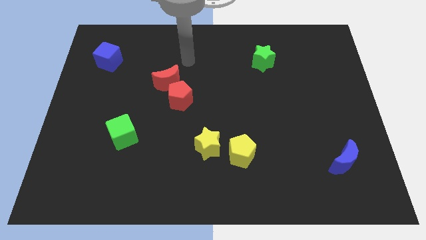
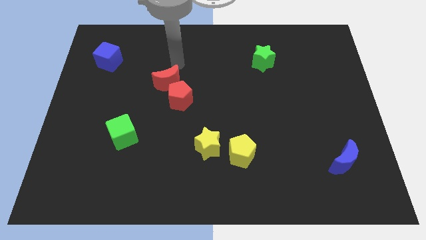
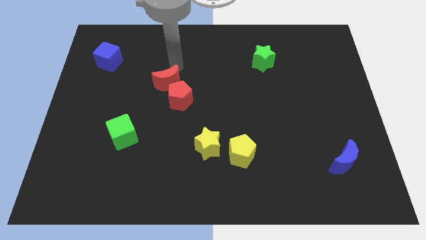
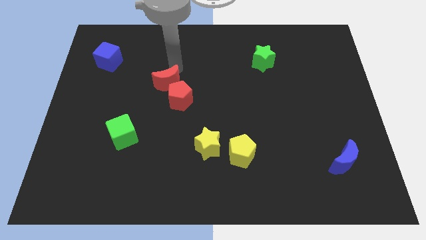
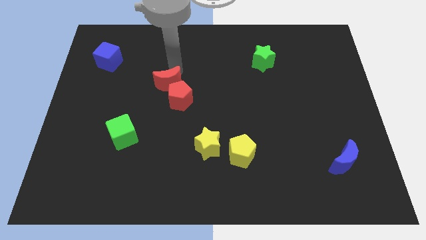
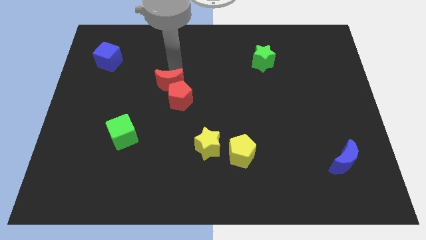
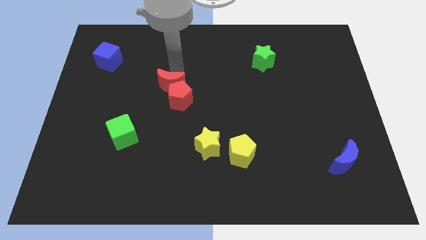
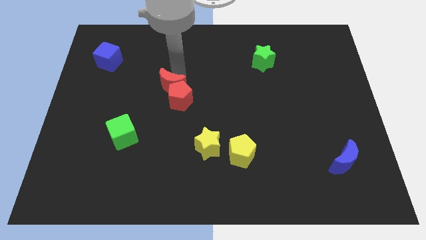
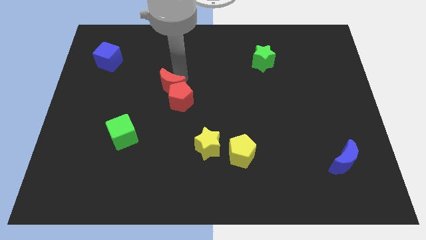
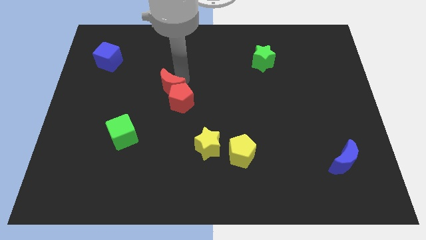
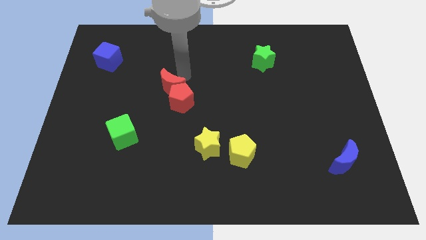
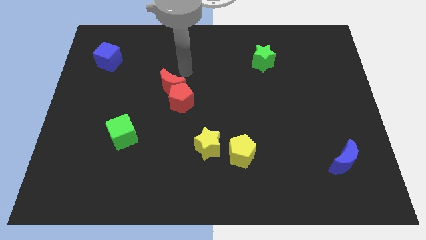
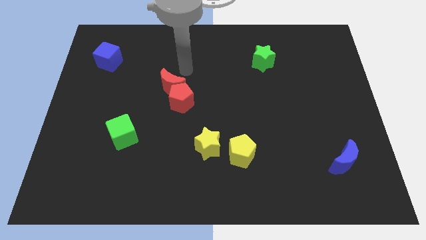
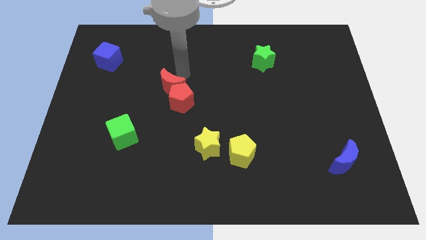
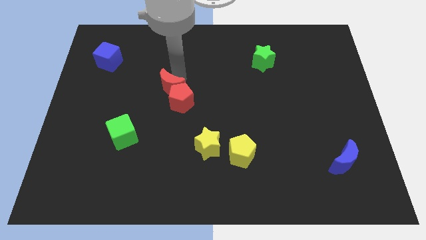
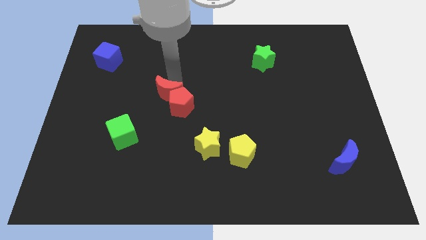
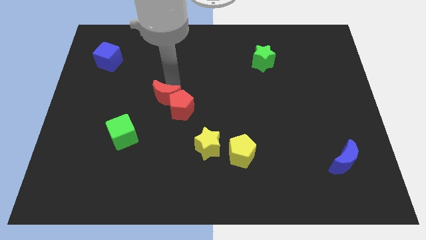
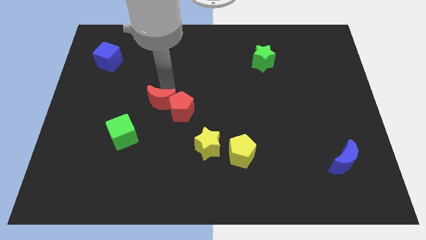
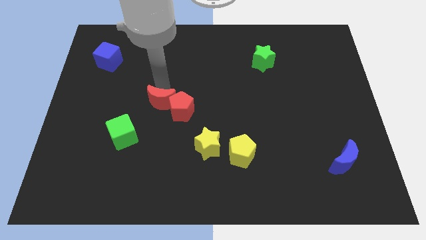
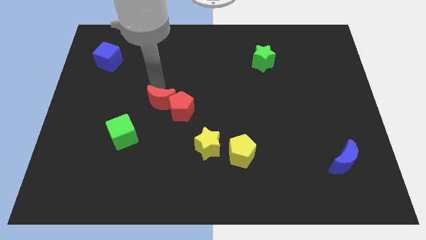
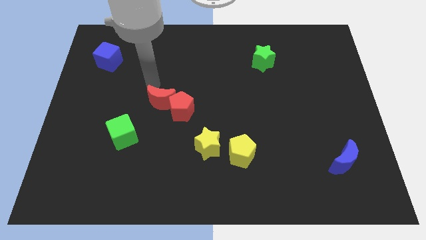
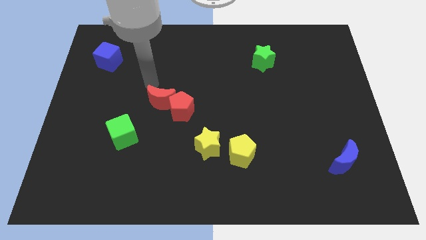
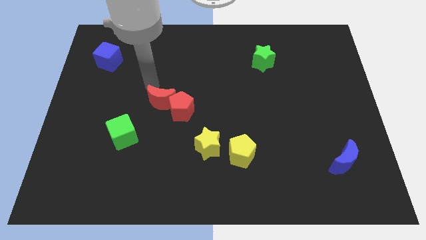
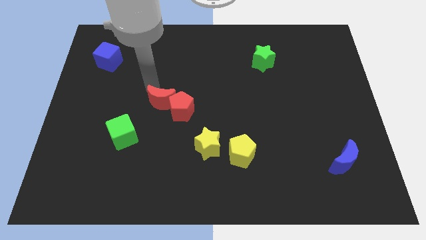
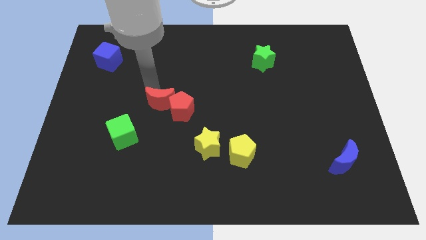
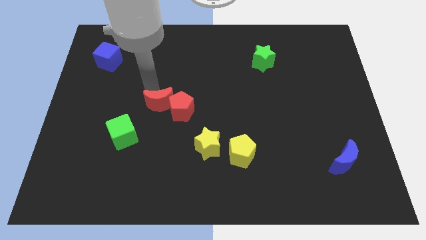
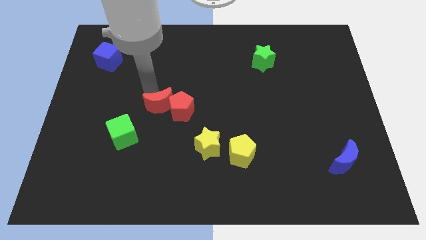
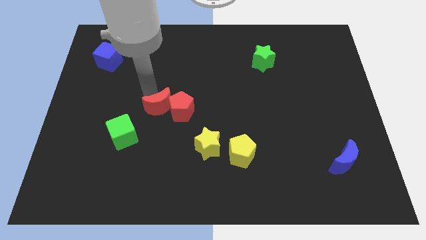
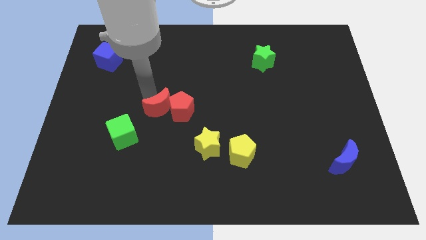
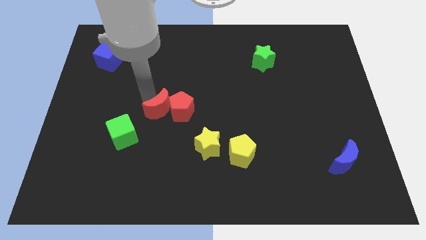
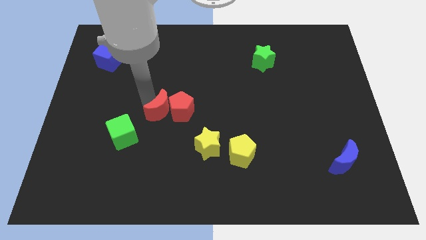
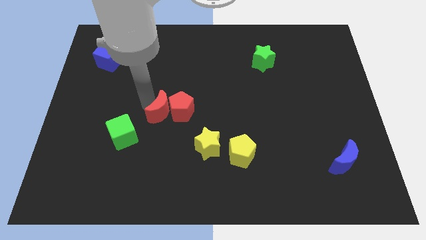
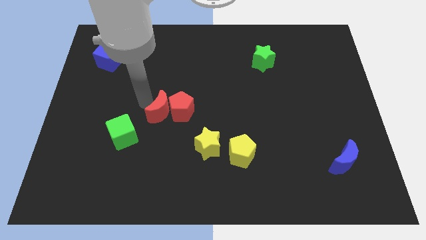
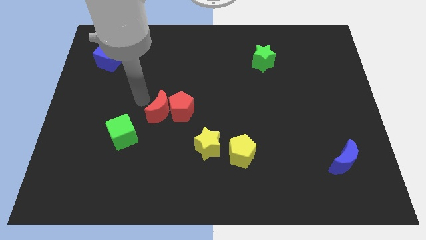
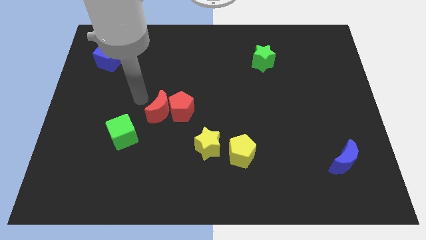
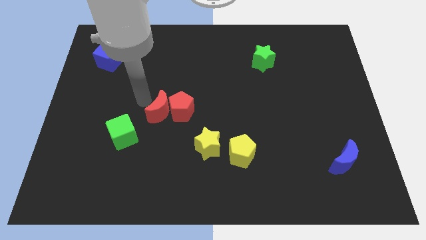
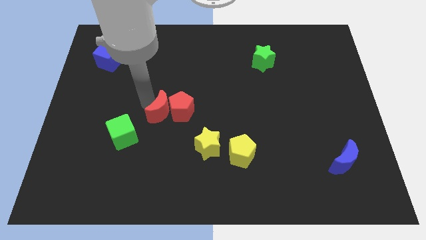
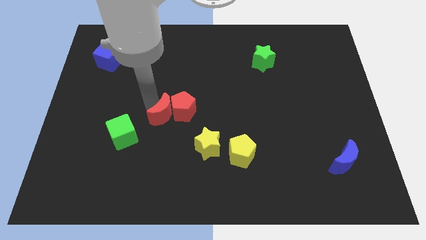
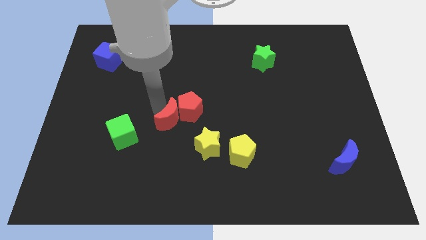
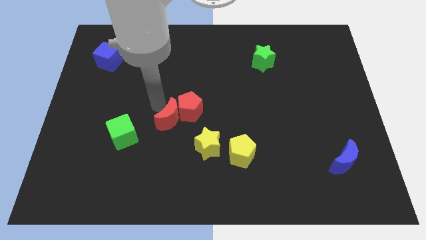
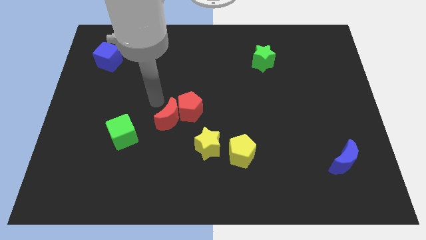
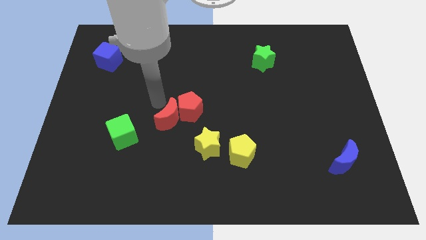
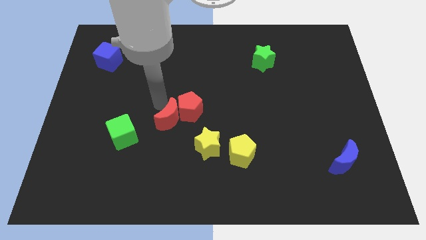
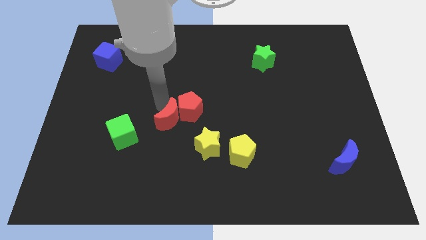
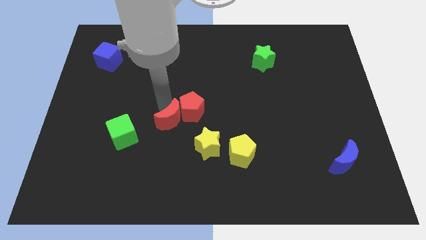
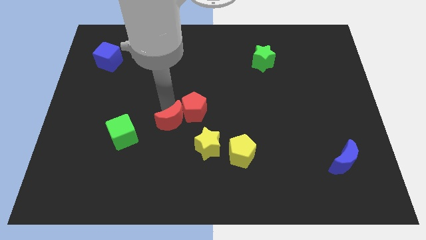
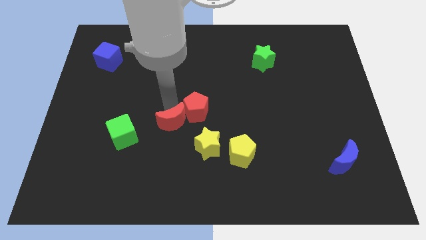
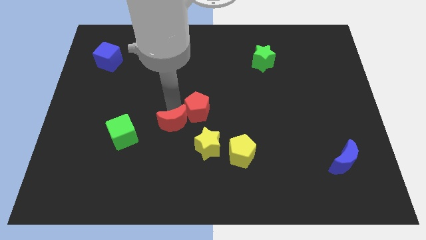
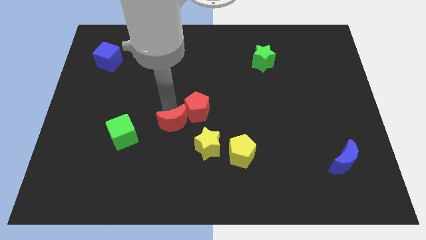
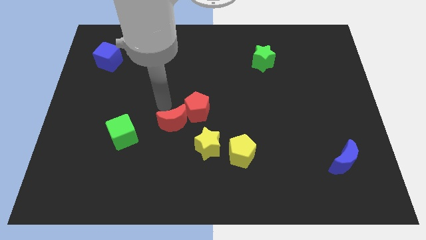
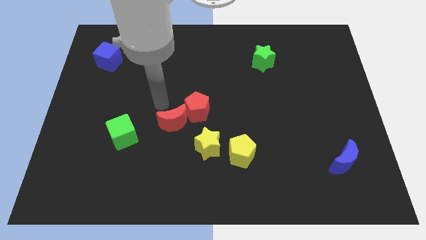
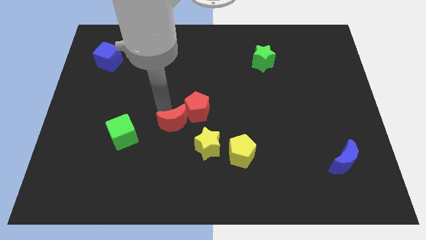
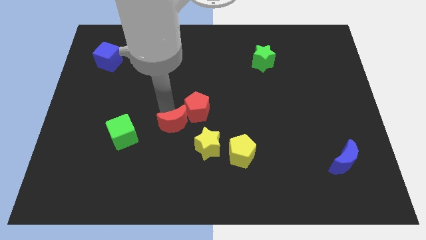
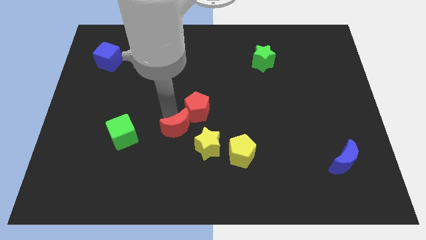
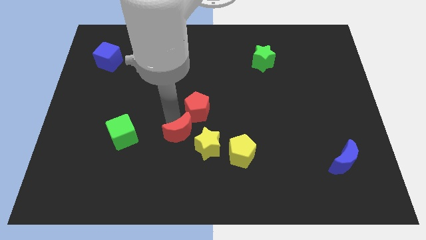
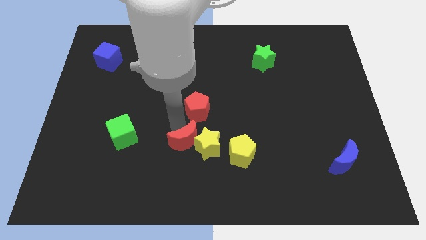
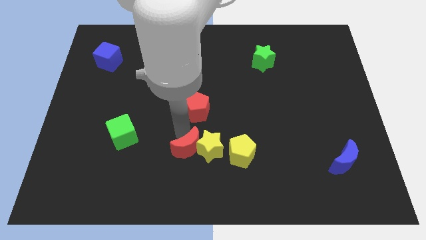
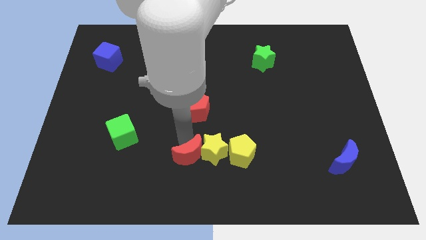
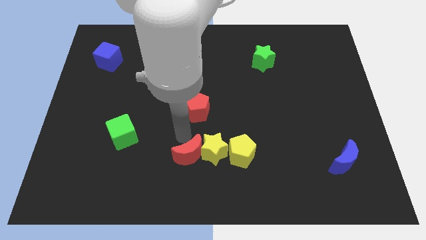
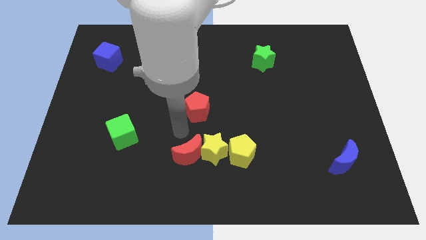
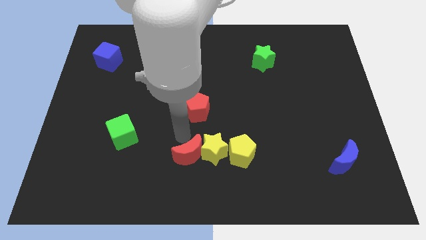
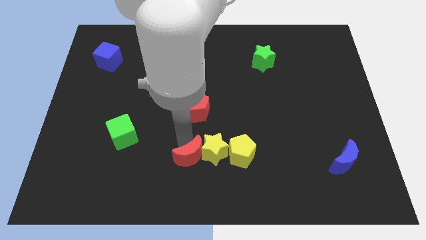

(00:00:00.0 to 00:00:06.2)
push the red moon to the bottom
